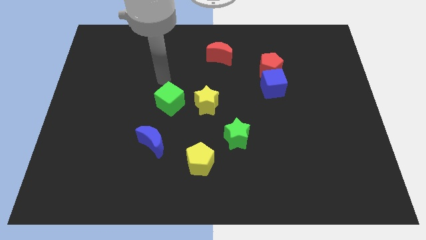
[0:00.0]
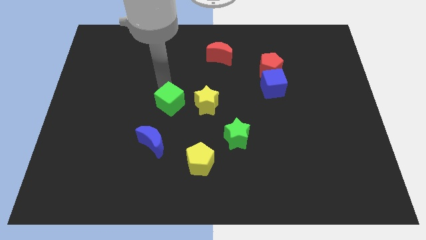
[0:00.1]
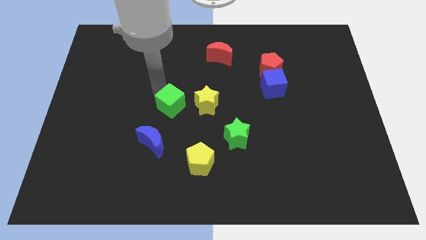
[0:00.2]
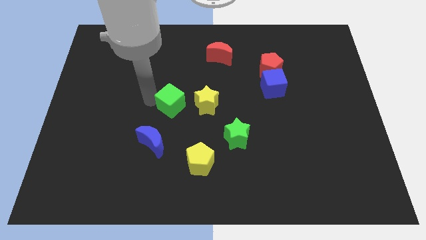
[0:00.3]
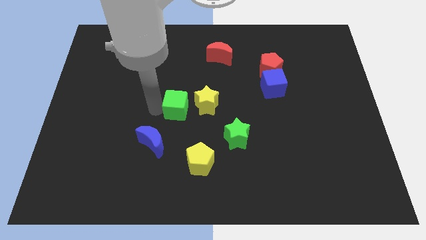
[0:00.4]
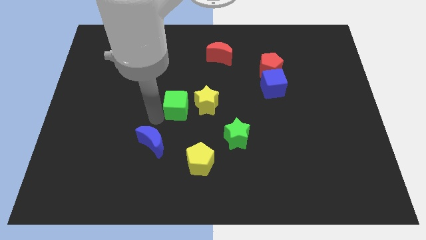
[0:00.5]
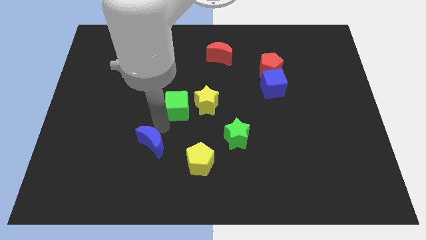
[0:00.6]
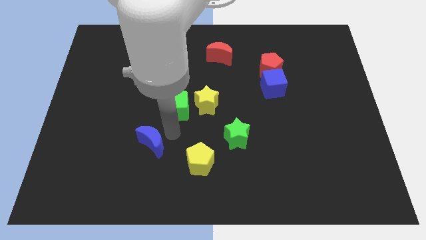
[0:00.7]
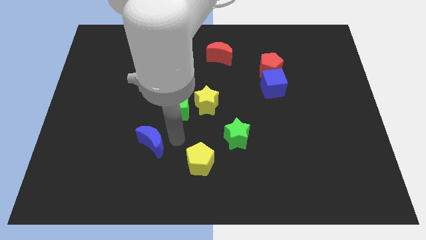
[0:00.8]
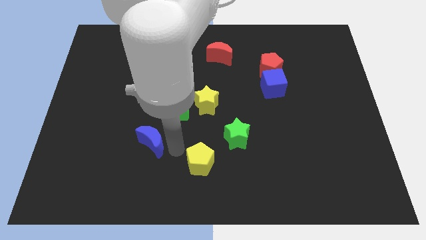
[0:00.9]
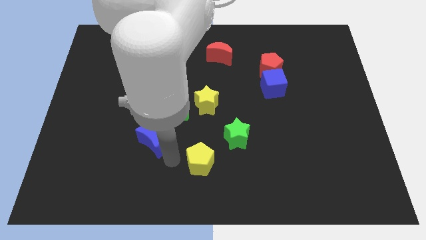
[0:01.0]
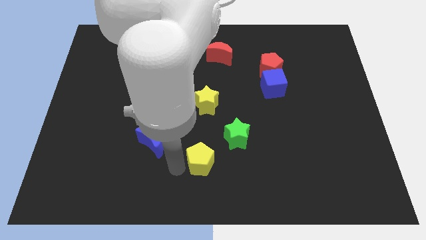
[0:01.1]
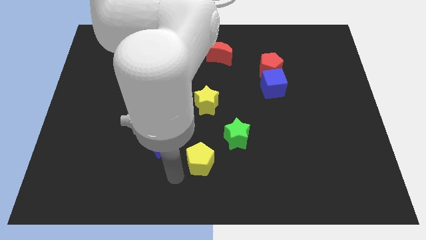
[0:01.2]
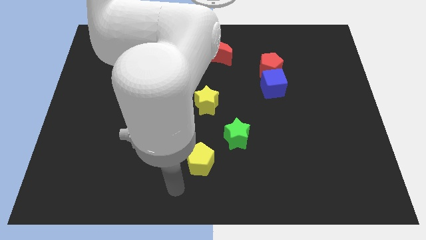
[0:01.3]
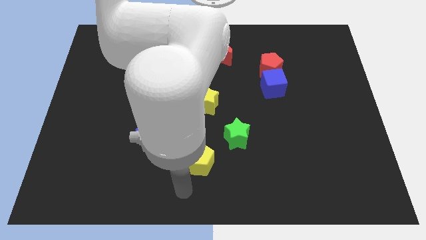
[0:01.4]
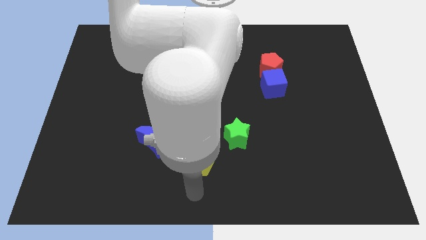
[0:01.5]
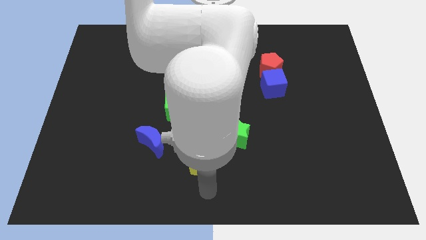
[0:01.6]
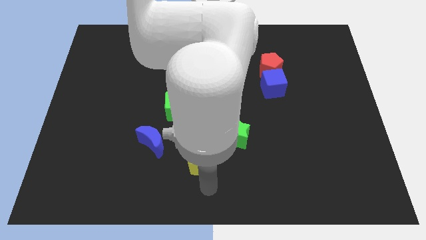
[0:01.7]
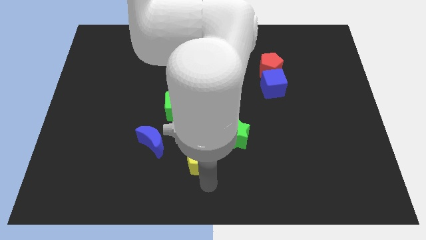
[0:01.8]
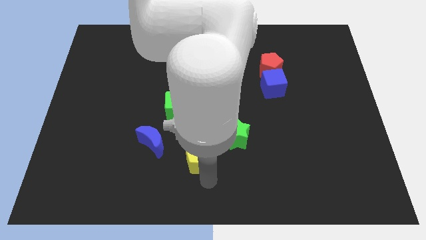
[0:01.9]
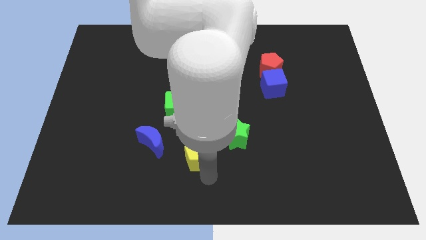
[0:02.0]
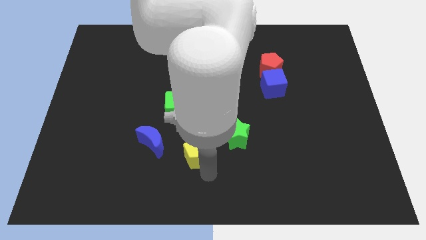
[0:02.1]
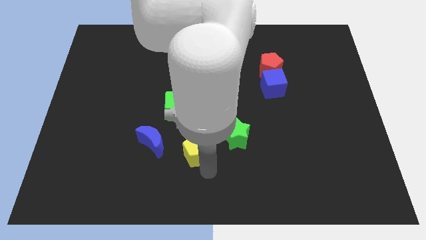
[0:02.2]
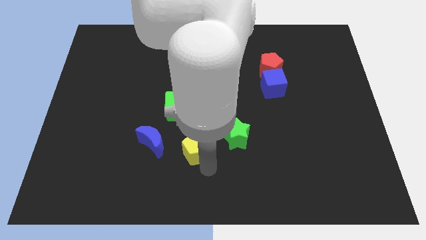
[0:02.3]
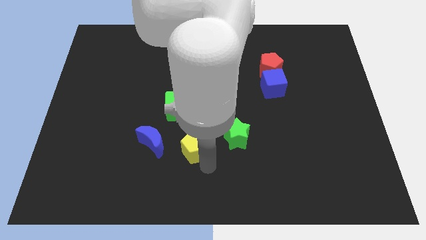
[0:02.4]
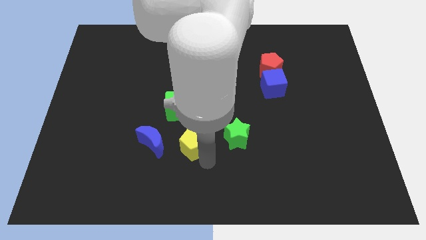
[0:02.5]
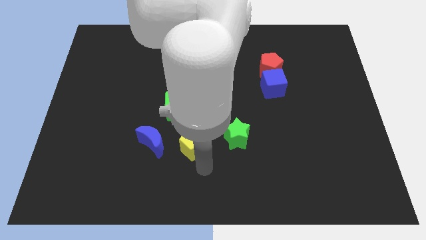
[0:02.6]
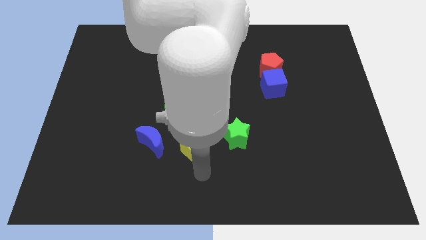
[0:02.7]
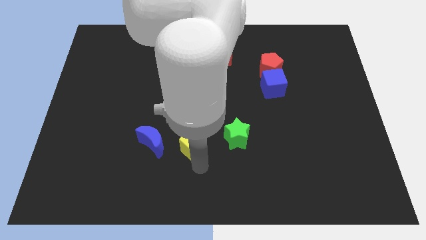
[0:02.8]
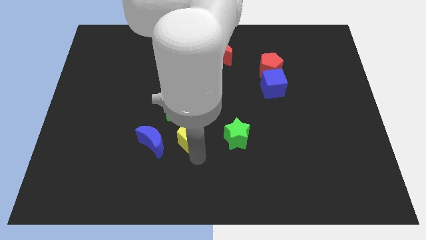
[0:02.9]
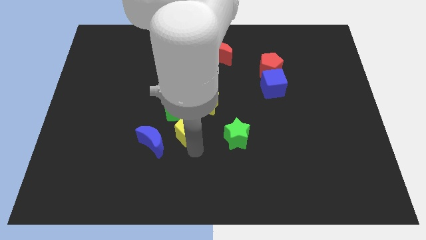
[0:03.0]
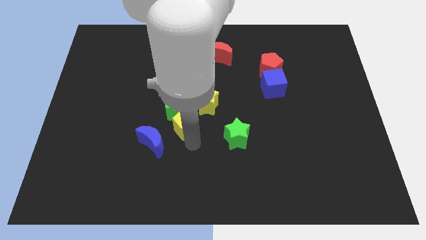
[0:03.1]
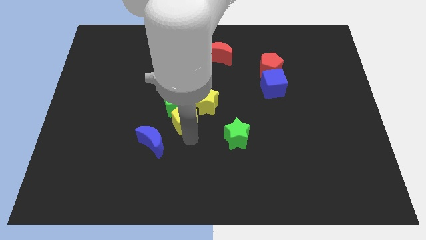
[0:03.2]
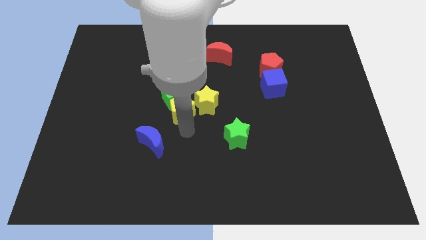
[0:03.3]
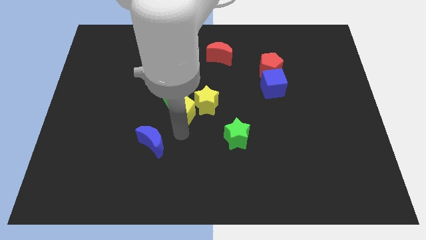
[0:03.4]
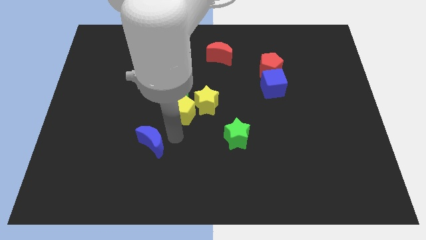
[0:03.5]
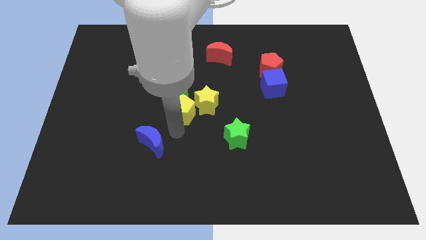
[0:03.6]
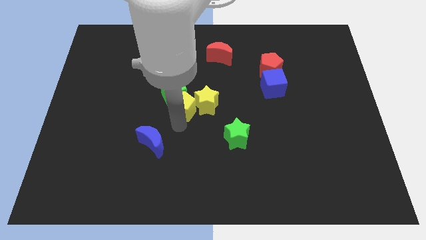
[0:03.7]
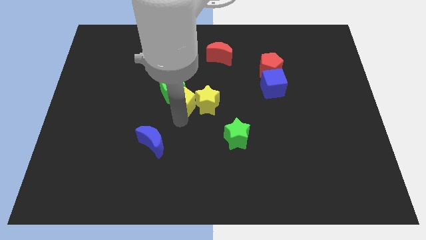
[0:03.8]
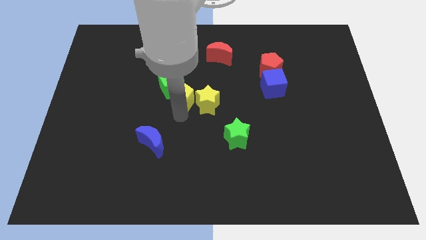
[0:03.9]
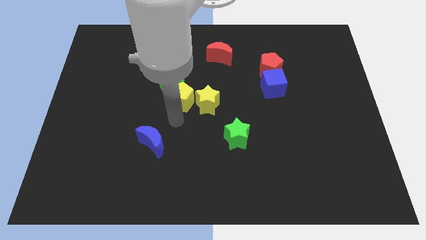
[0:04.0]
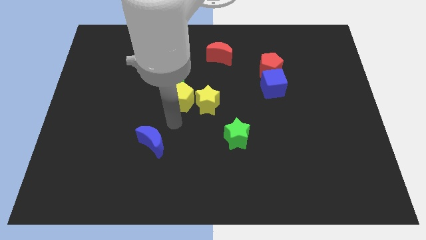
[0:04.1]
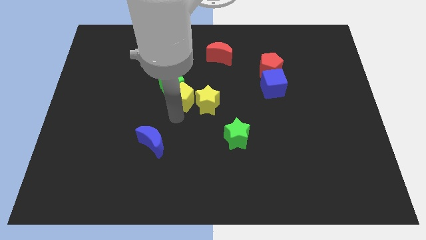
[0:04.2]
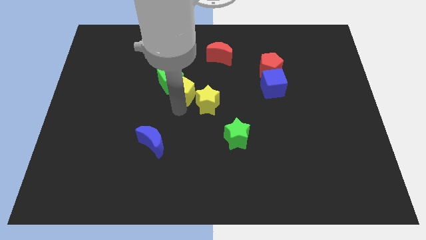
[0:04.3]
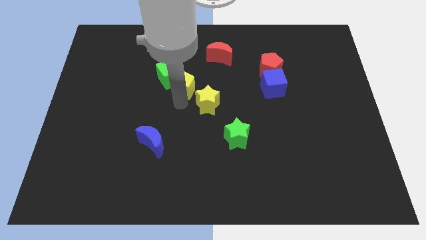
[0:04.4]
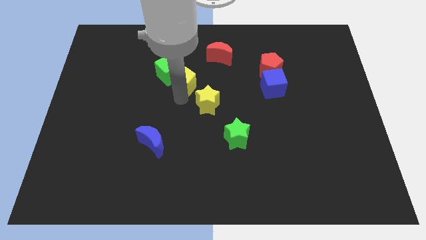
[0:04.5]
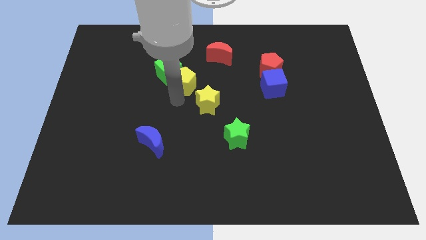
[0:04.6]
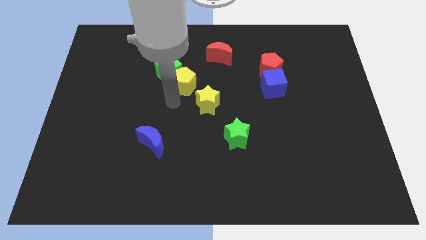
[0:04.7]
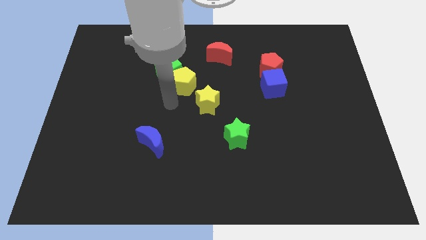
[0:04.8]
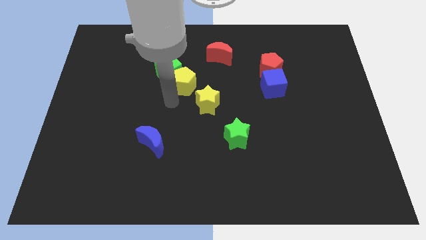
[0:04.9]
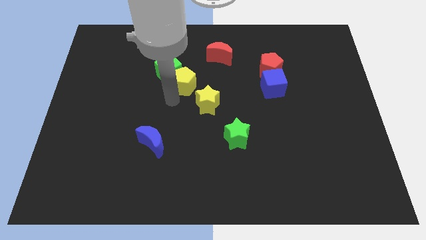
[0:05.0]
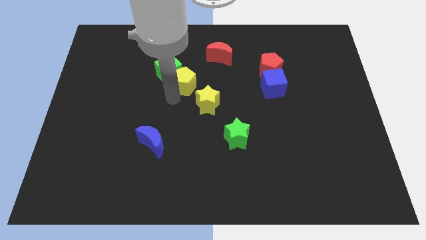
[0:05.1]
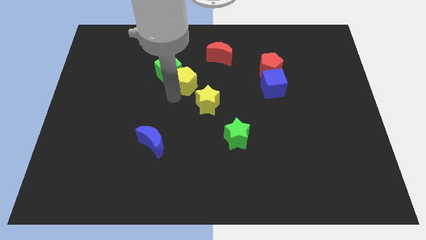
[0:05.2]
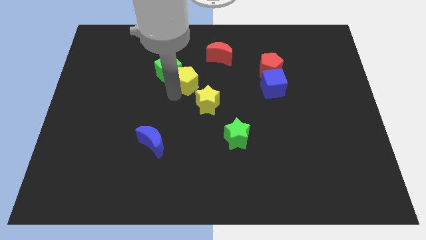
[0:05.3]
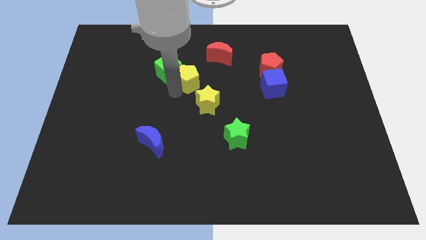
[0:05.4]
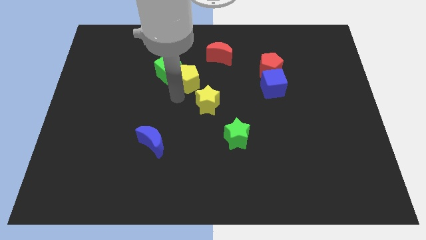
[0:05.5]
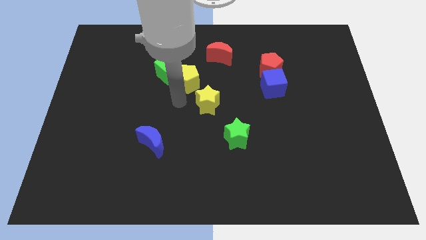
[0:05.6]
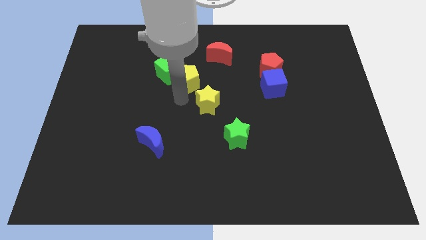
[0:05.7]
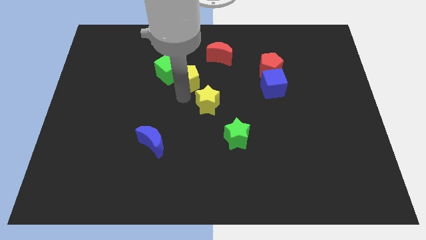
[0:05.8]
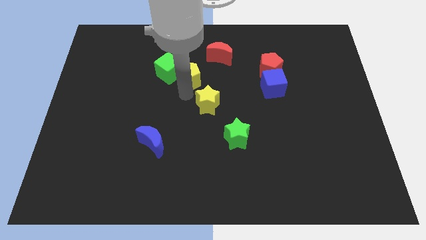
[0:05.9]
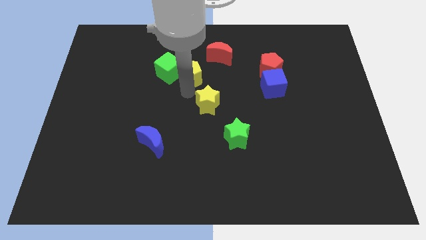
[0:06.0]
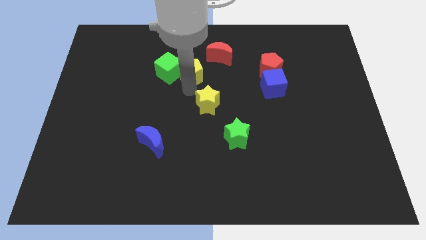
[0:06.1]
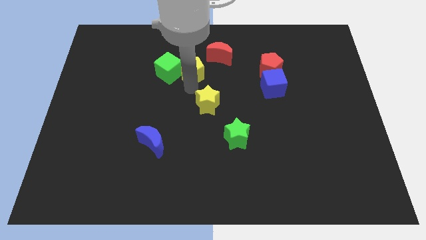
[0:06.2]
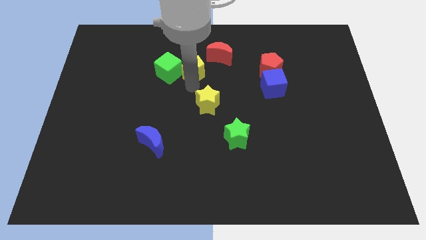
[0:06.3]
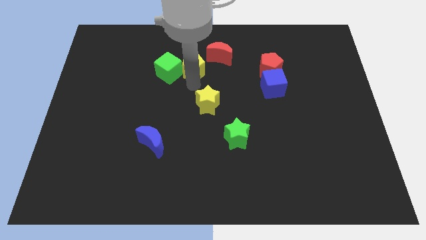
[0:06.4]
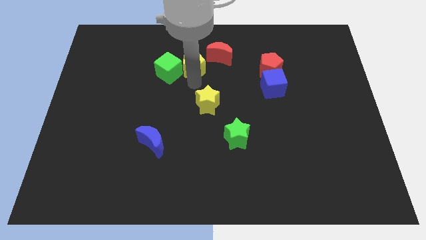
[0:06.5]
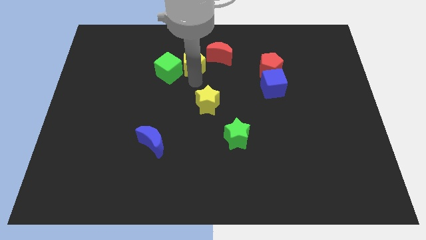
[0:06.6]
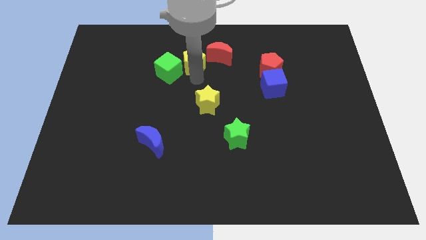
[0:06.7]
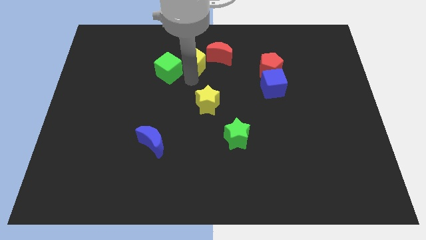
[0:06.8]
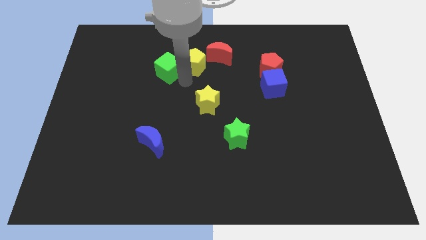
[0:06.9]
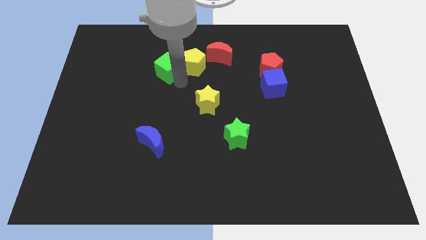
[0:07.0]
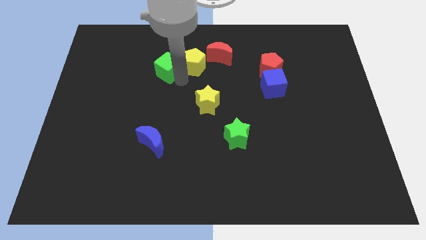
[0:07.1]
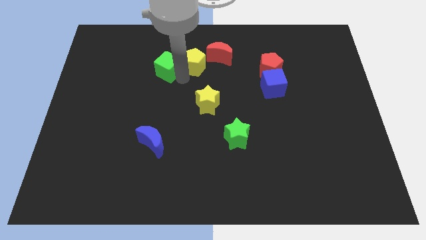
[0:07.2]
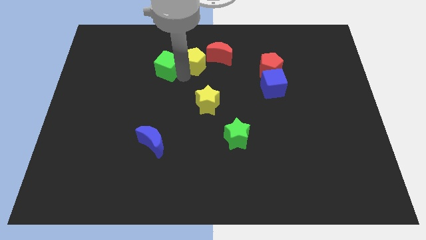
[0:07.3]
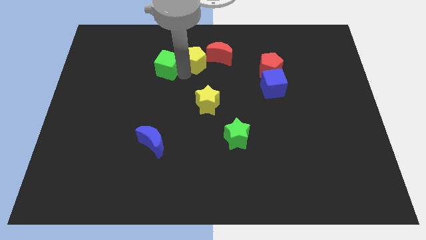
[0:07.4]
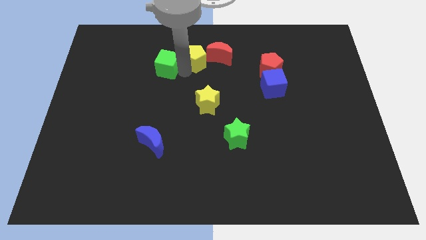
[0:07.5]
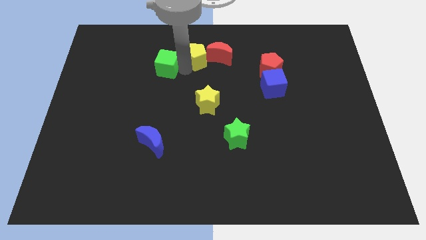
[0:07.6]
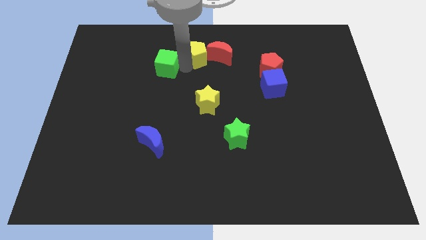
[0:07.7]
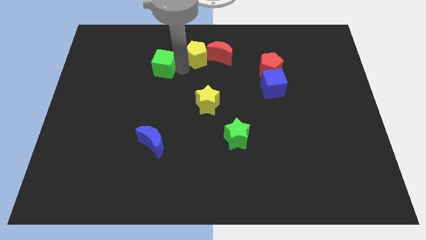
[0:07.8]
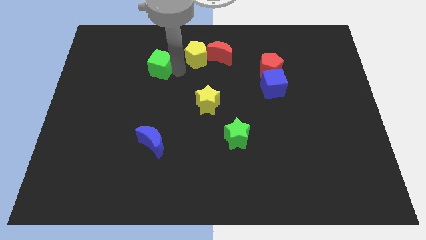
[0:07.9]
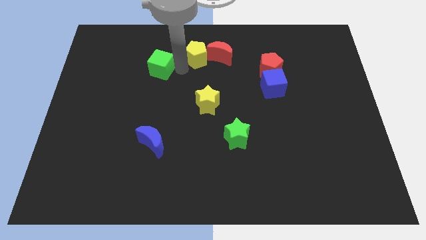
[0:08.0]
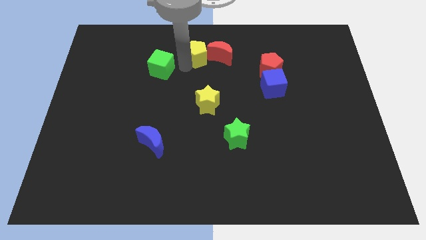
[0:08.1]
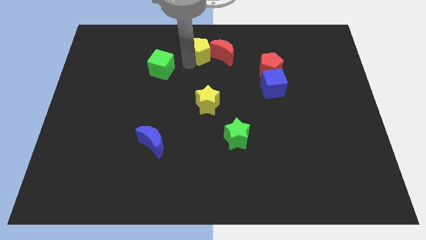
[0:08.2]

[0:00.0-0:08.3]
slide the yellow pentagon to the top side
